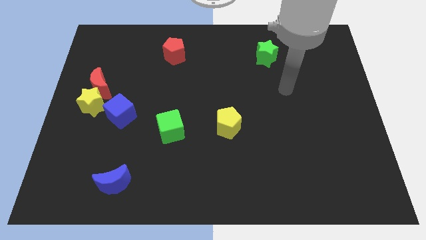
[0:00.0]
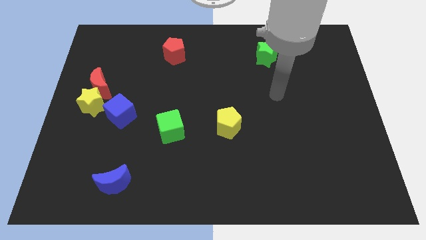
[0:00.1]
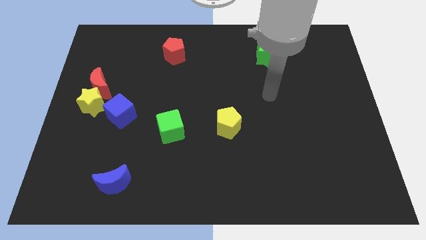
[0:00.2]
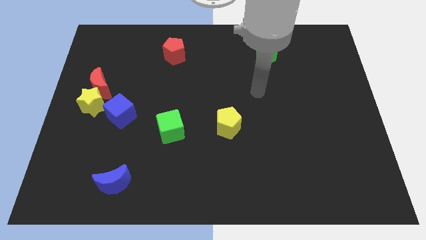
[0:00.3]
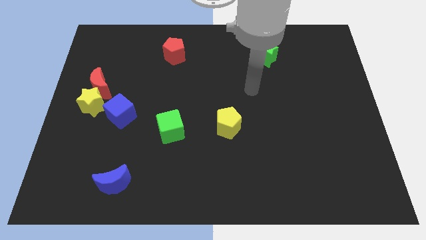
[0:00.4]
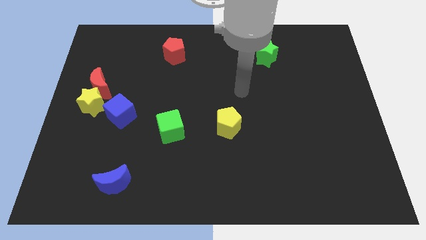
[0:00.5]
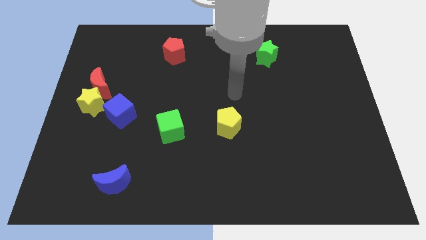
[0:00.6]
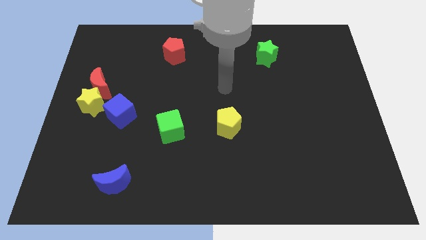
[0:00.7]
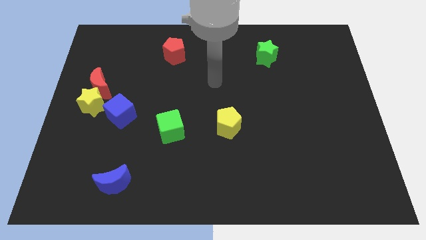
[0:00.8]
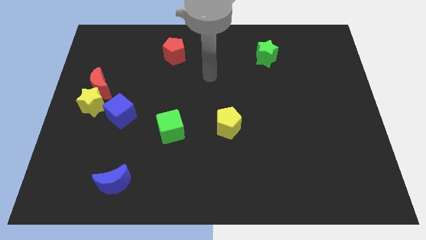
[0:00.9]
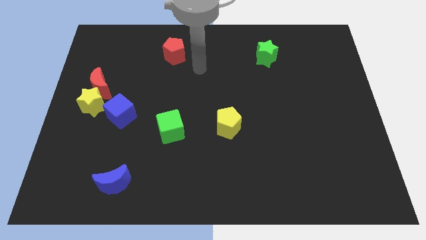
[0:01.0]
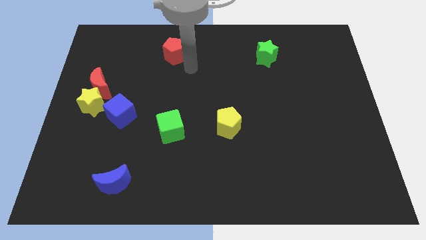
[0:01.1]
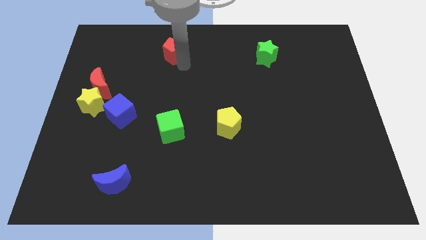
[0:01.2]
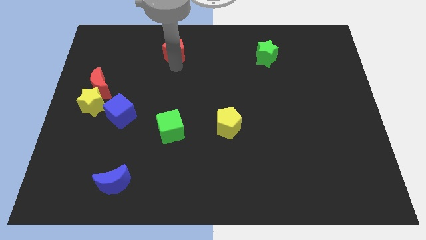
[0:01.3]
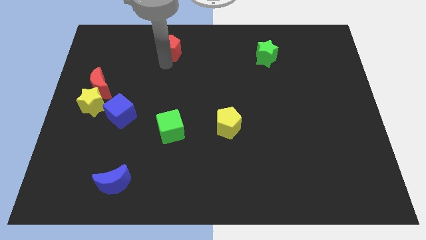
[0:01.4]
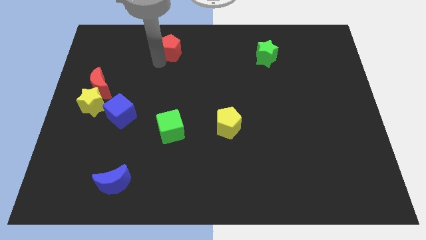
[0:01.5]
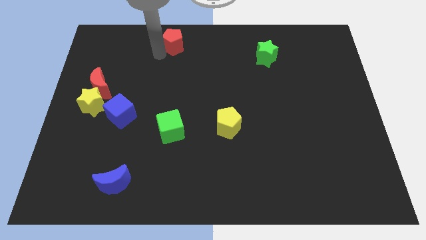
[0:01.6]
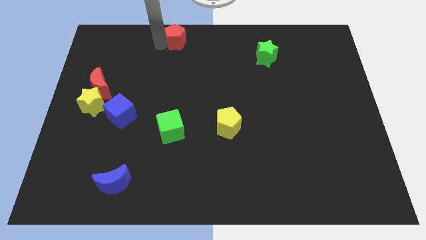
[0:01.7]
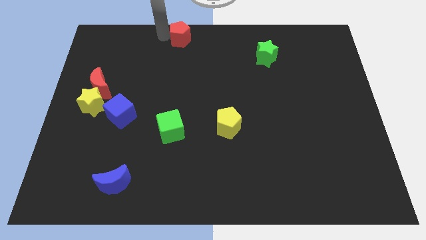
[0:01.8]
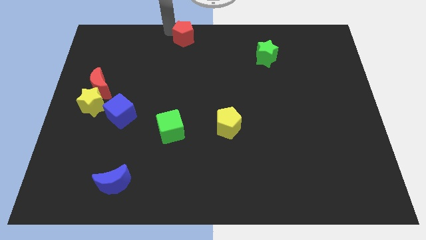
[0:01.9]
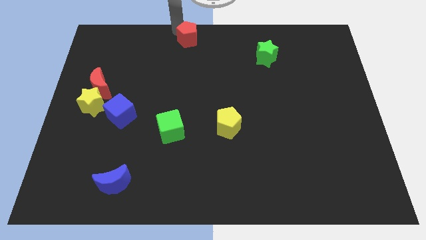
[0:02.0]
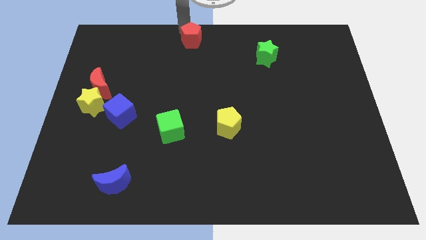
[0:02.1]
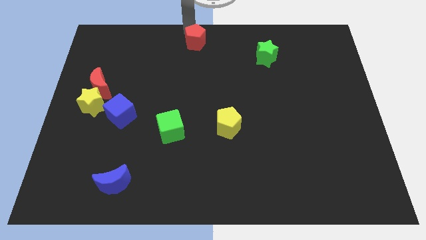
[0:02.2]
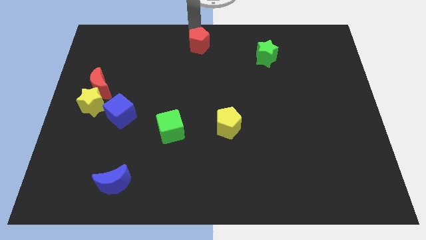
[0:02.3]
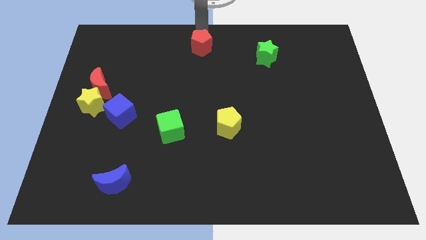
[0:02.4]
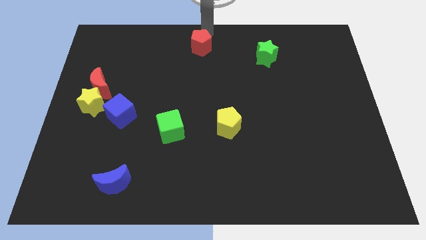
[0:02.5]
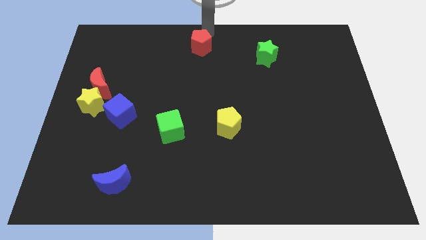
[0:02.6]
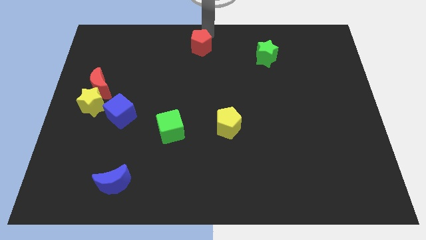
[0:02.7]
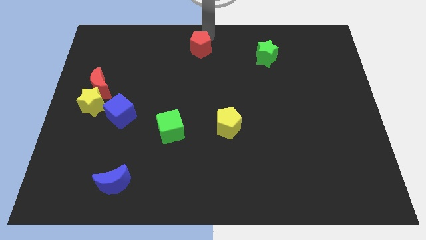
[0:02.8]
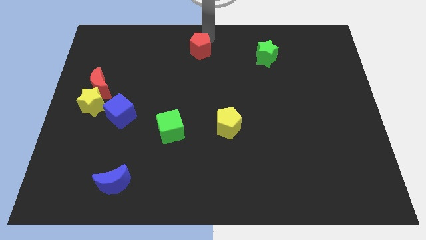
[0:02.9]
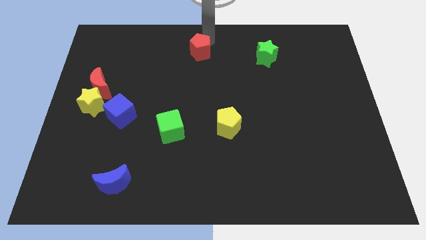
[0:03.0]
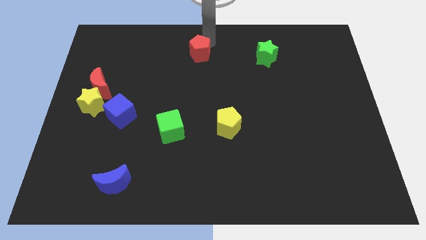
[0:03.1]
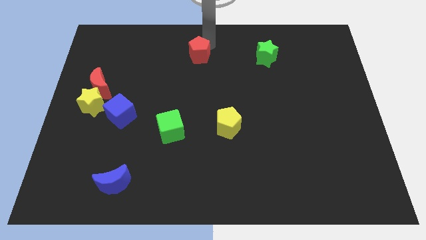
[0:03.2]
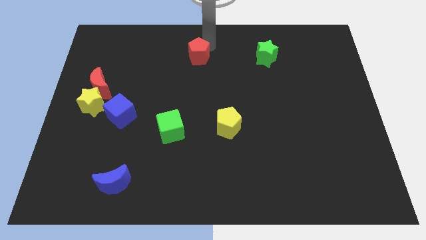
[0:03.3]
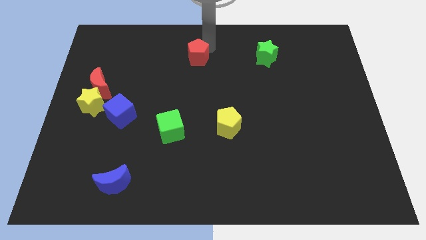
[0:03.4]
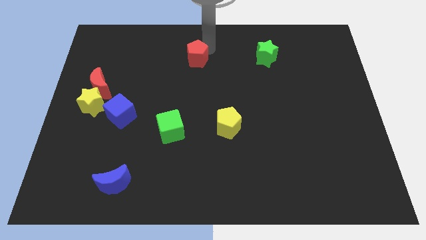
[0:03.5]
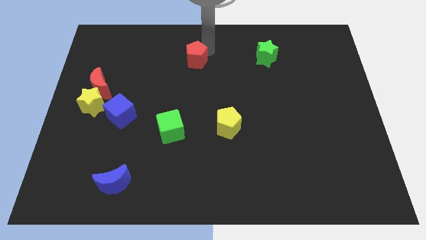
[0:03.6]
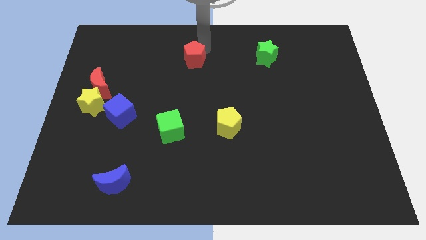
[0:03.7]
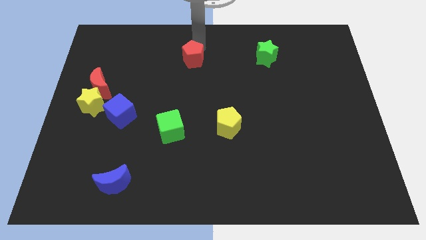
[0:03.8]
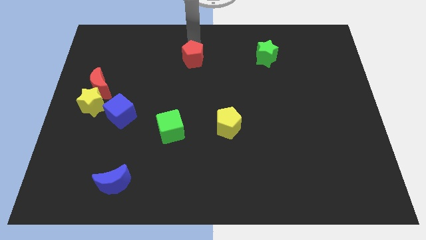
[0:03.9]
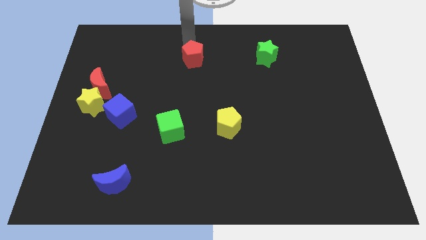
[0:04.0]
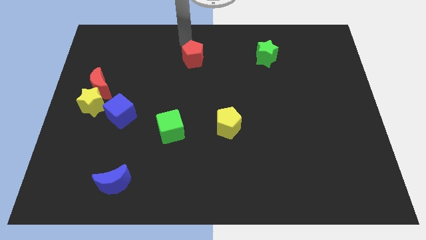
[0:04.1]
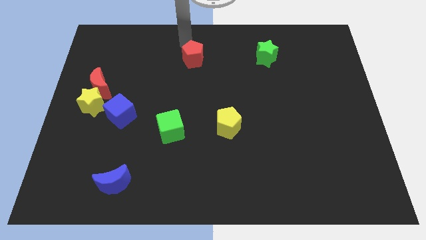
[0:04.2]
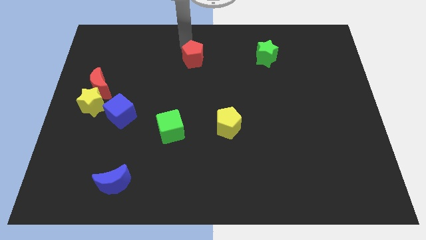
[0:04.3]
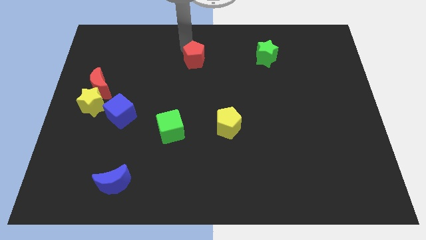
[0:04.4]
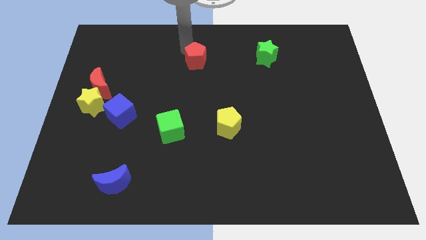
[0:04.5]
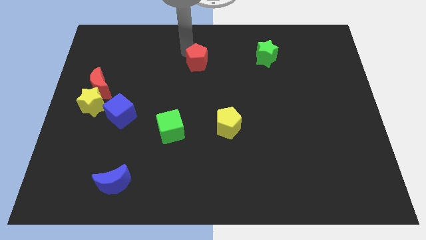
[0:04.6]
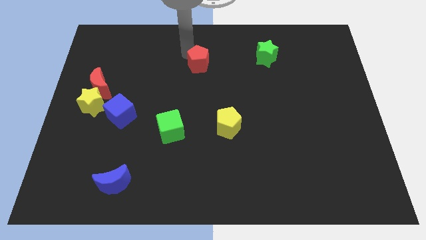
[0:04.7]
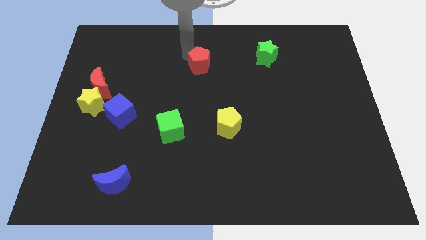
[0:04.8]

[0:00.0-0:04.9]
move the red pentagon to the middle of the board

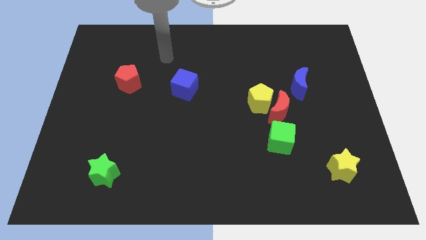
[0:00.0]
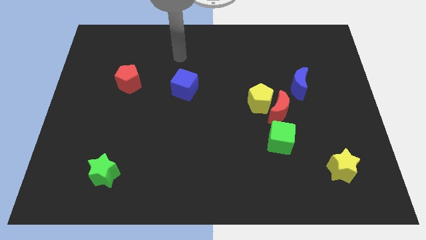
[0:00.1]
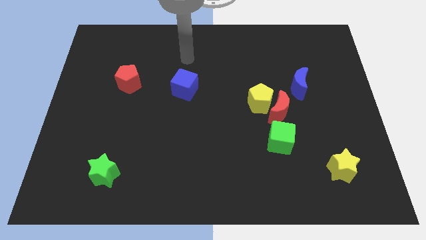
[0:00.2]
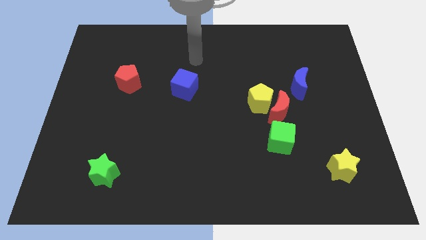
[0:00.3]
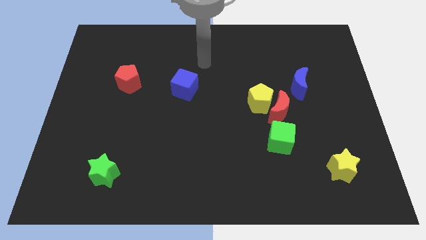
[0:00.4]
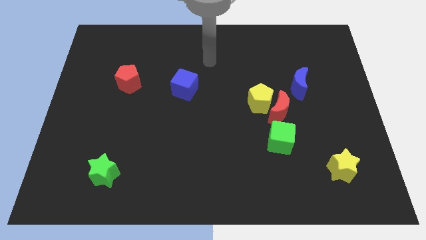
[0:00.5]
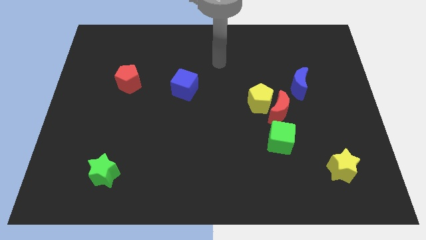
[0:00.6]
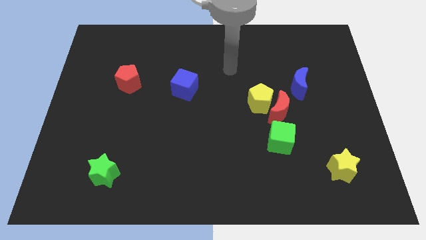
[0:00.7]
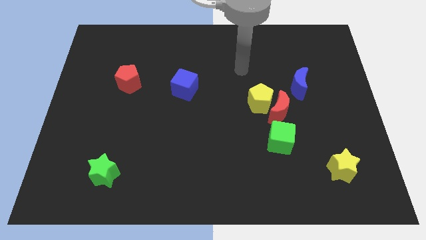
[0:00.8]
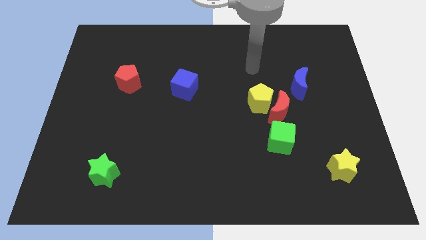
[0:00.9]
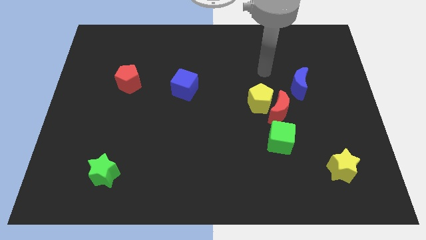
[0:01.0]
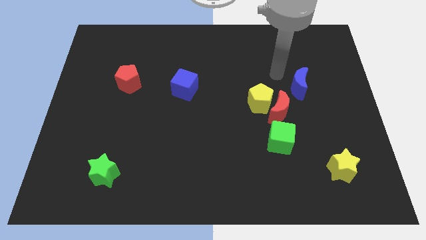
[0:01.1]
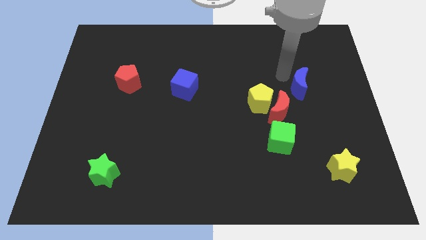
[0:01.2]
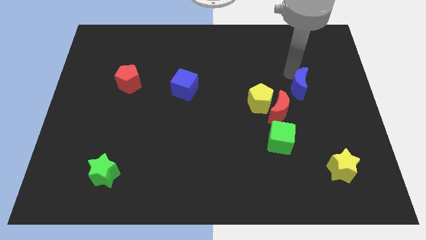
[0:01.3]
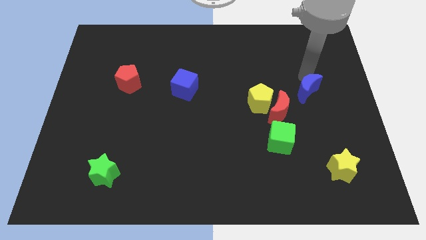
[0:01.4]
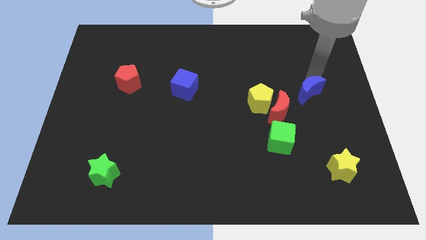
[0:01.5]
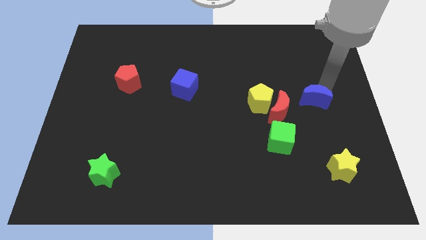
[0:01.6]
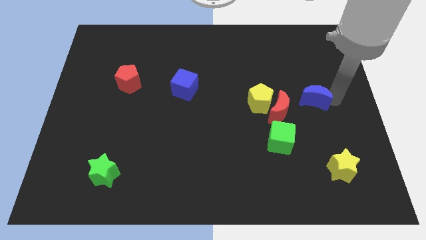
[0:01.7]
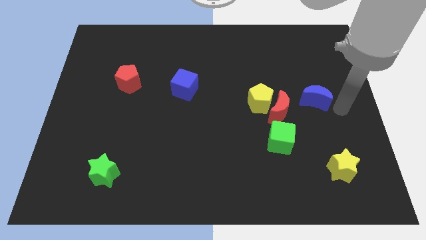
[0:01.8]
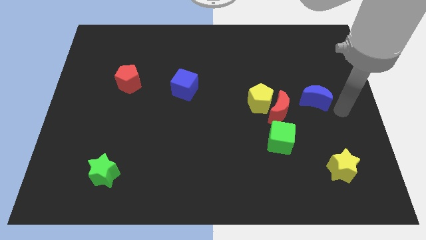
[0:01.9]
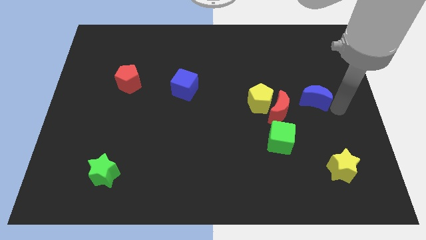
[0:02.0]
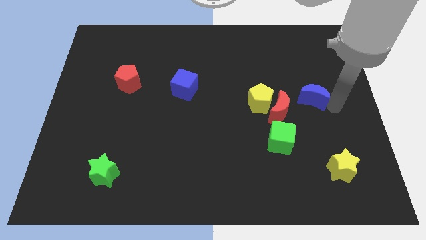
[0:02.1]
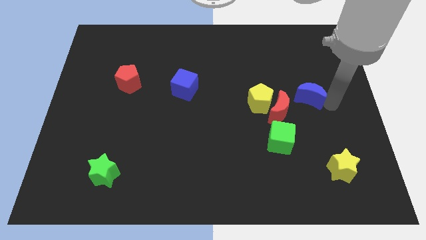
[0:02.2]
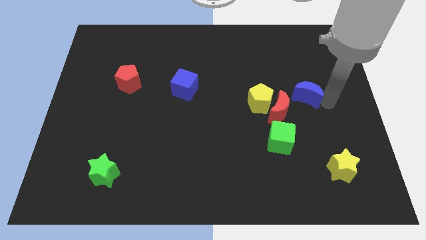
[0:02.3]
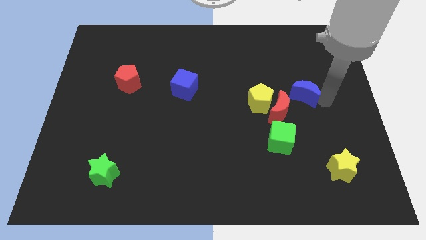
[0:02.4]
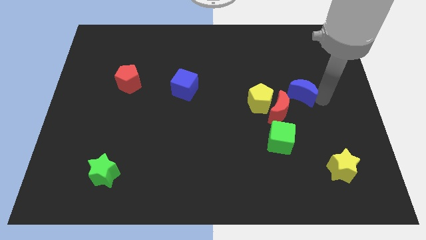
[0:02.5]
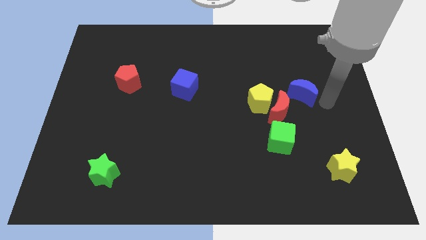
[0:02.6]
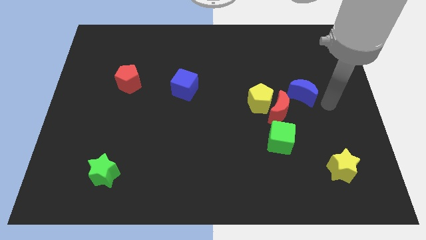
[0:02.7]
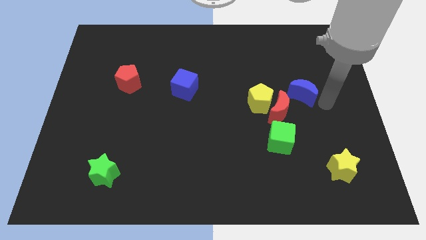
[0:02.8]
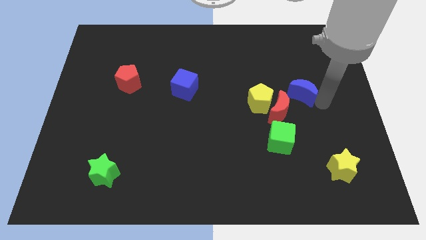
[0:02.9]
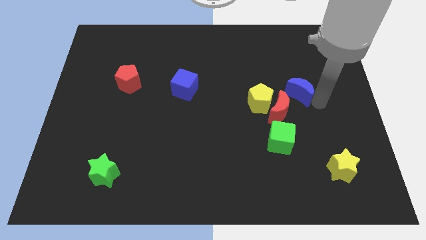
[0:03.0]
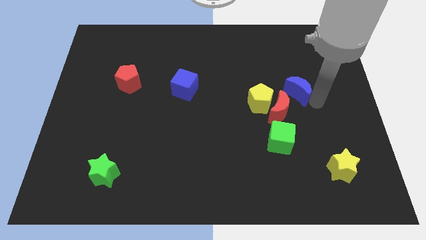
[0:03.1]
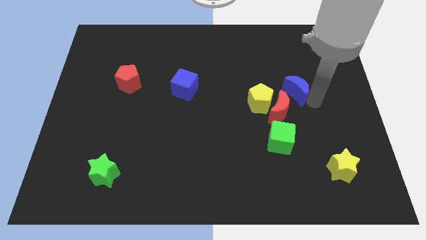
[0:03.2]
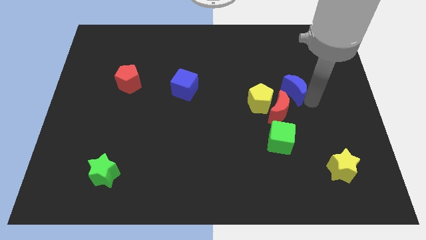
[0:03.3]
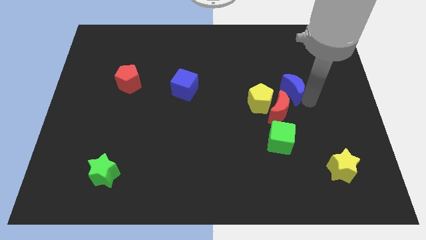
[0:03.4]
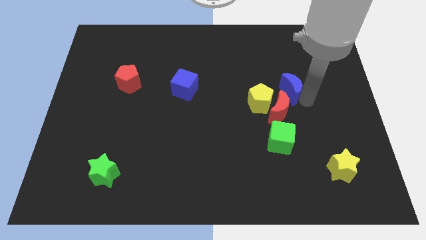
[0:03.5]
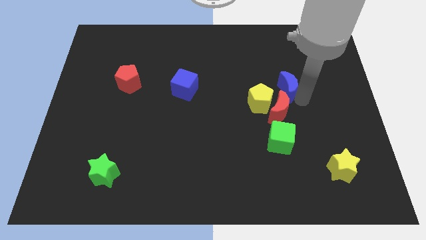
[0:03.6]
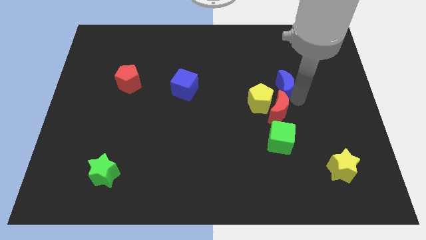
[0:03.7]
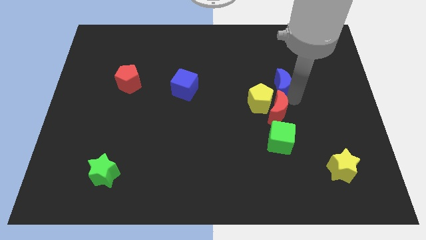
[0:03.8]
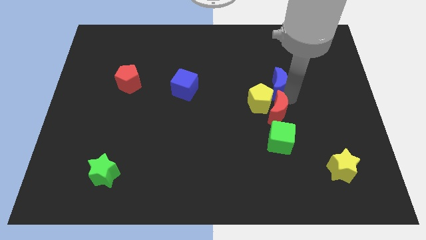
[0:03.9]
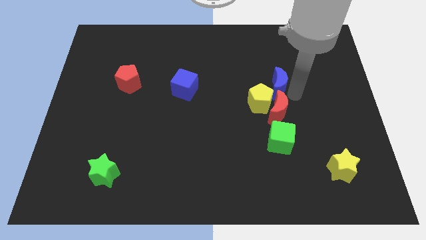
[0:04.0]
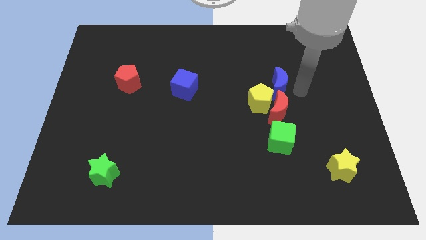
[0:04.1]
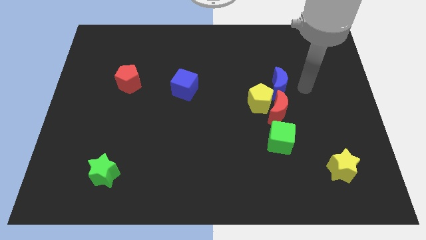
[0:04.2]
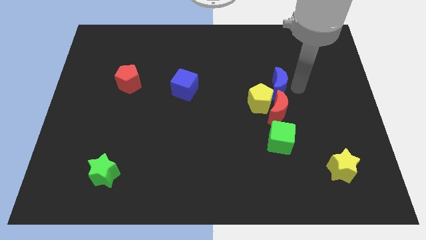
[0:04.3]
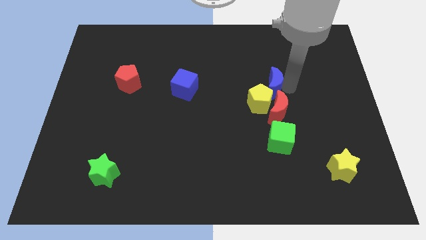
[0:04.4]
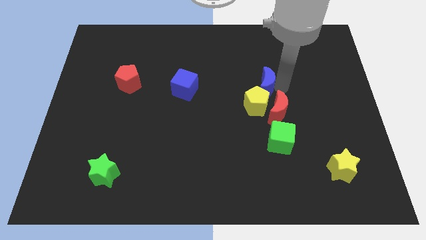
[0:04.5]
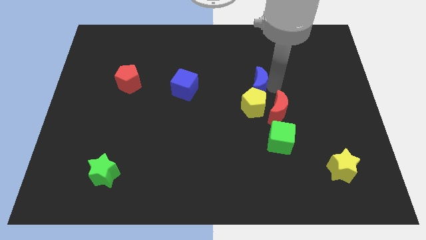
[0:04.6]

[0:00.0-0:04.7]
move the blue moon to the middle of the board
